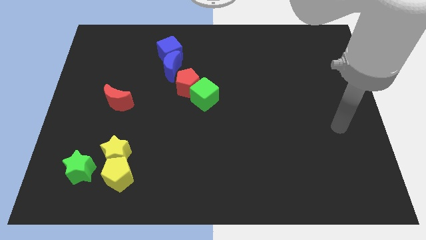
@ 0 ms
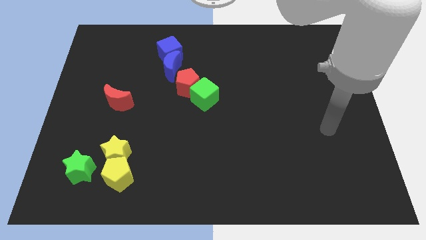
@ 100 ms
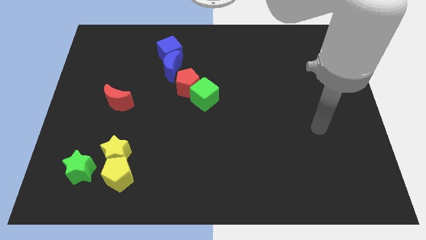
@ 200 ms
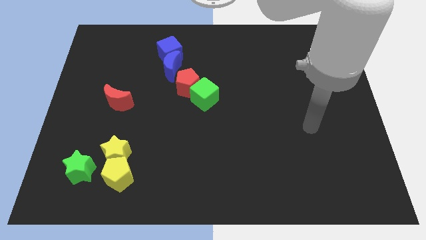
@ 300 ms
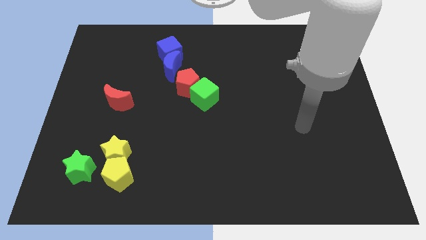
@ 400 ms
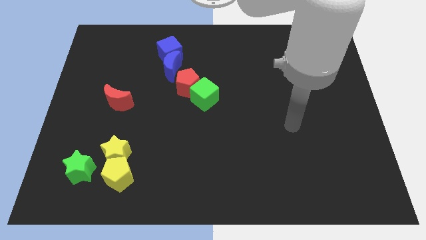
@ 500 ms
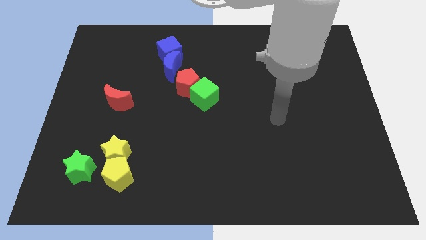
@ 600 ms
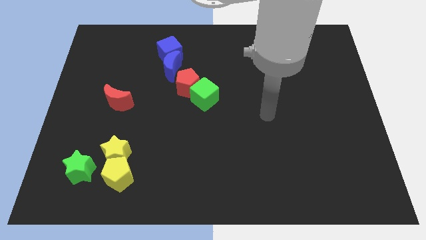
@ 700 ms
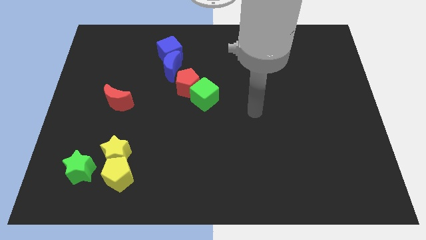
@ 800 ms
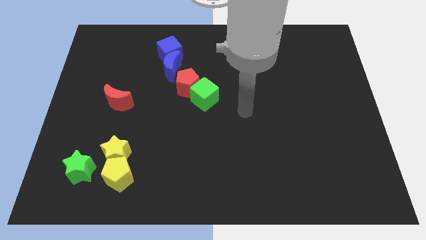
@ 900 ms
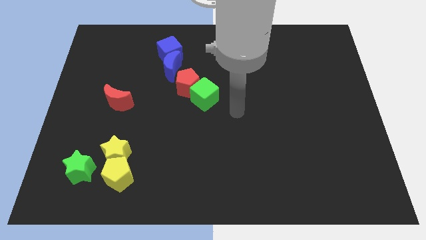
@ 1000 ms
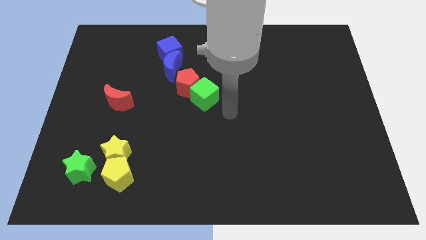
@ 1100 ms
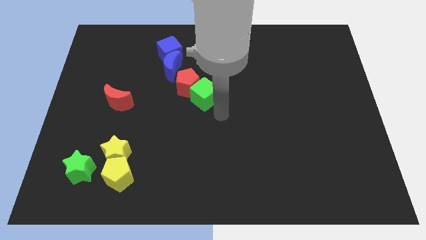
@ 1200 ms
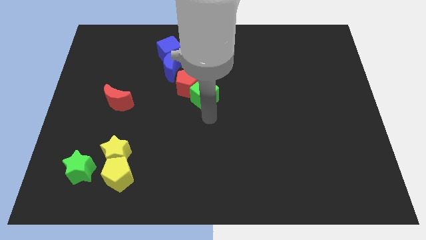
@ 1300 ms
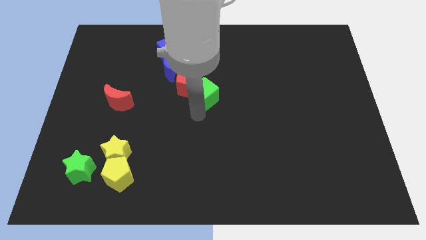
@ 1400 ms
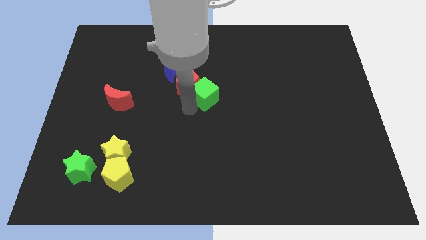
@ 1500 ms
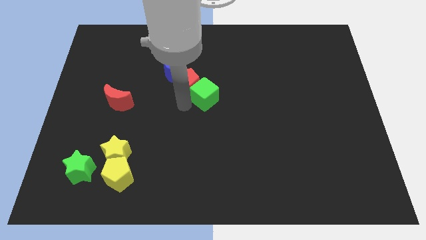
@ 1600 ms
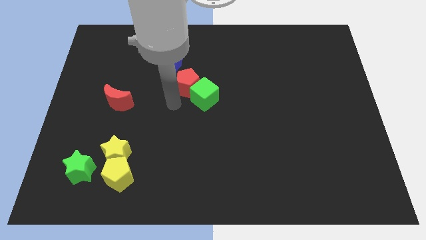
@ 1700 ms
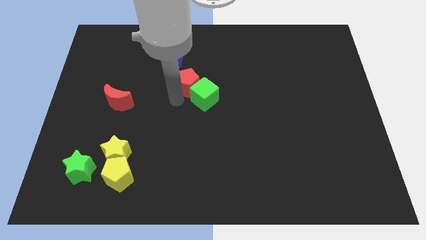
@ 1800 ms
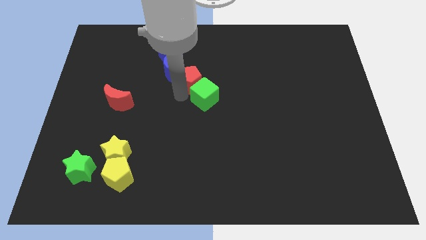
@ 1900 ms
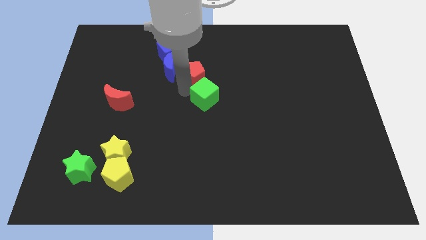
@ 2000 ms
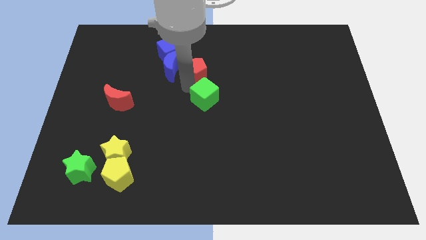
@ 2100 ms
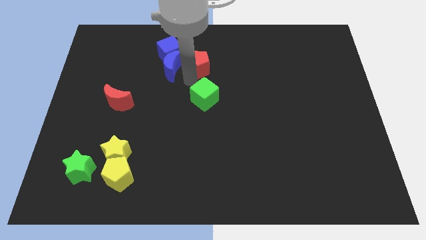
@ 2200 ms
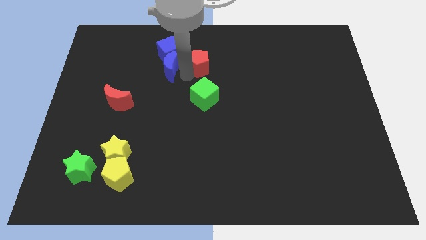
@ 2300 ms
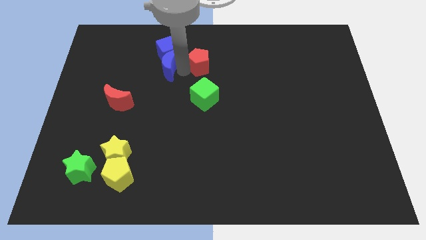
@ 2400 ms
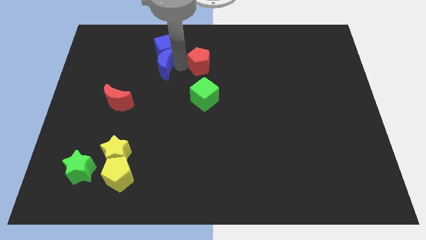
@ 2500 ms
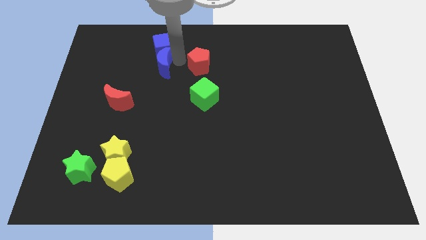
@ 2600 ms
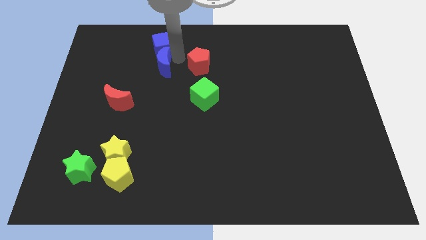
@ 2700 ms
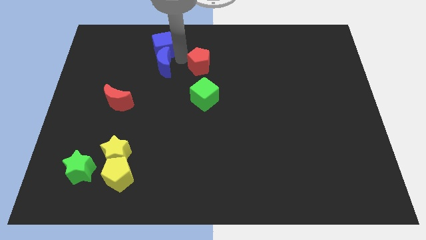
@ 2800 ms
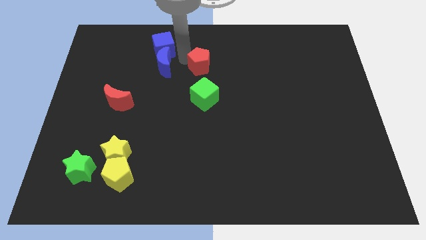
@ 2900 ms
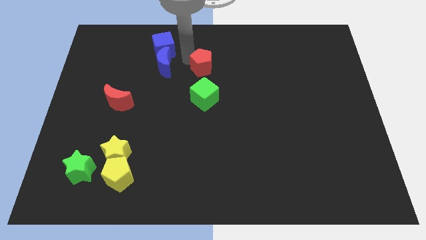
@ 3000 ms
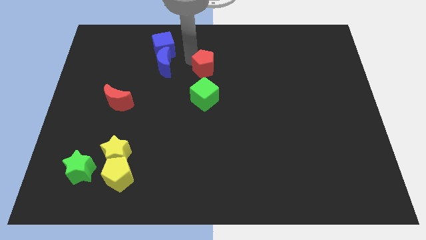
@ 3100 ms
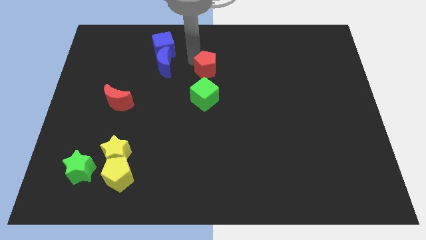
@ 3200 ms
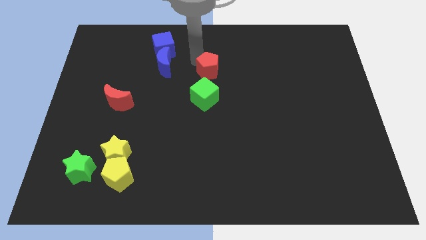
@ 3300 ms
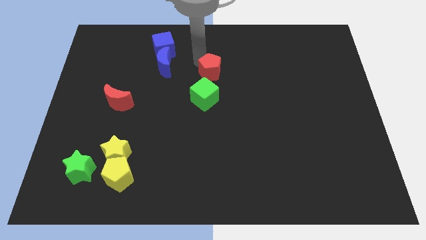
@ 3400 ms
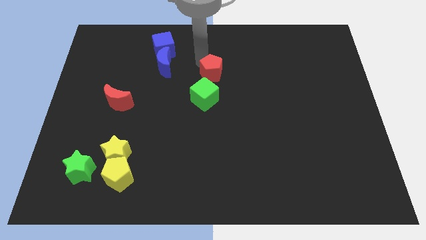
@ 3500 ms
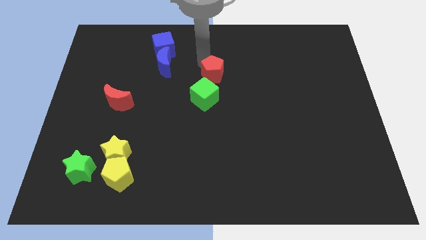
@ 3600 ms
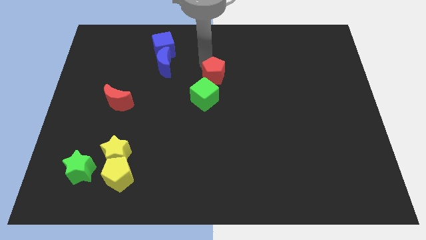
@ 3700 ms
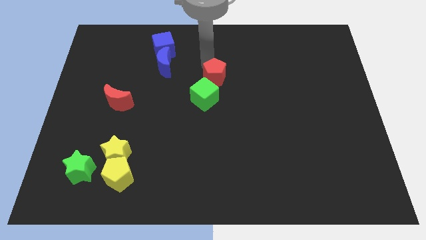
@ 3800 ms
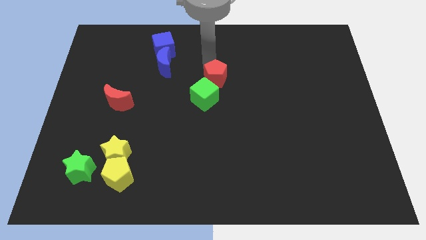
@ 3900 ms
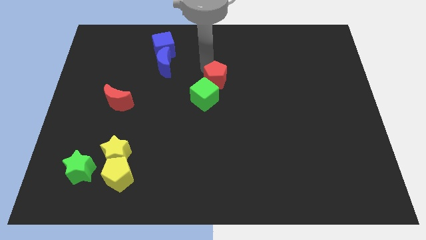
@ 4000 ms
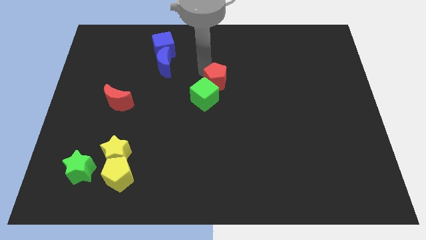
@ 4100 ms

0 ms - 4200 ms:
move the red pentagon somewhat to the right

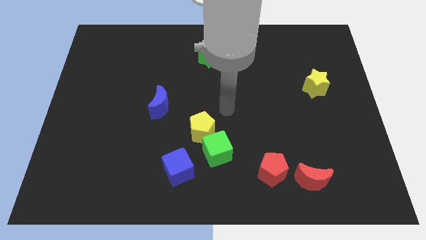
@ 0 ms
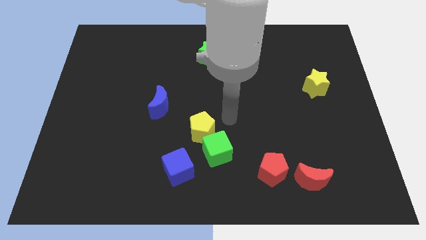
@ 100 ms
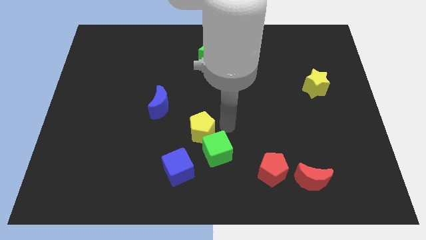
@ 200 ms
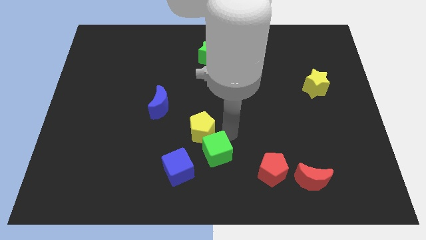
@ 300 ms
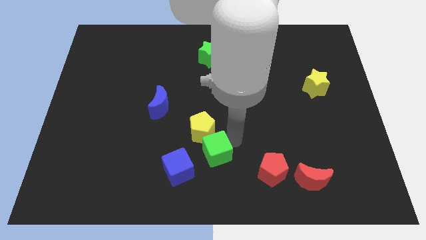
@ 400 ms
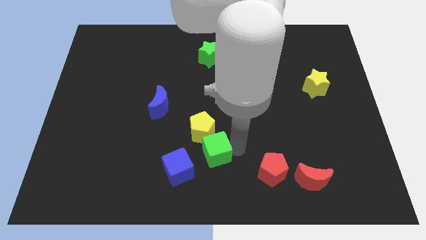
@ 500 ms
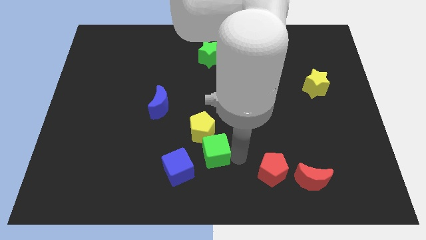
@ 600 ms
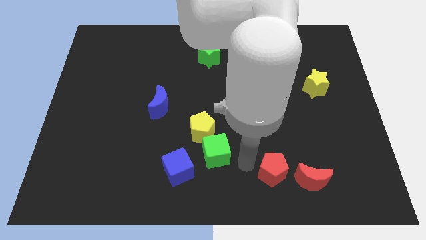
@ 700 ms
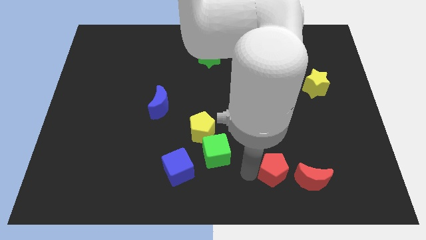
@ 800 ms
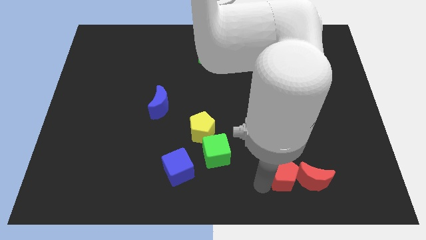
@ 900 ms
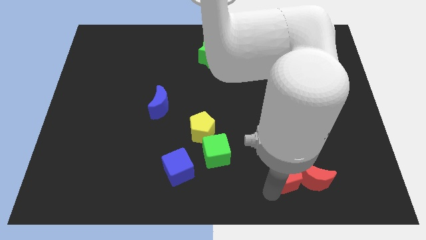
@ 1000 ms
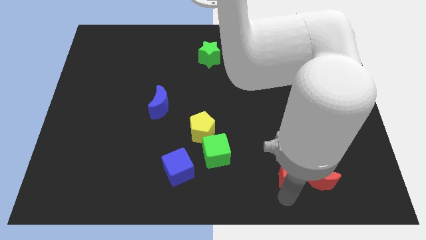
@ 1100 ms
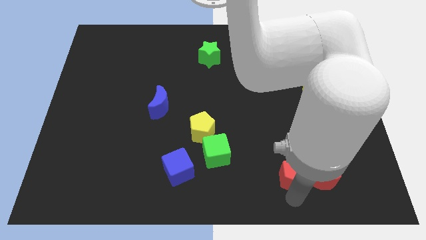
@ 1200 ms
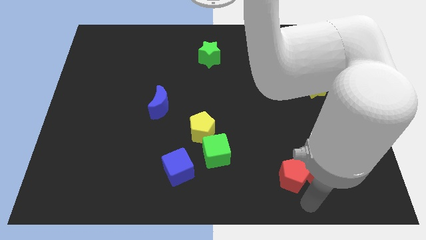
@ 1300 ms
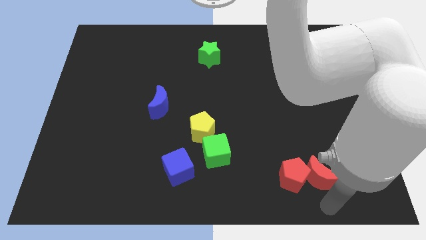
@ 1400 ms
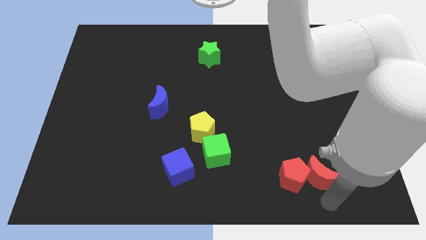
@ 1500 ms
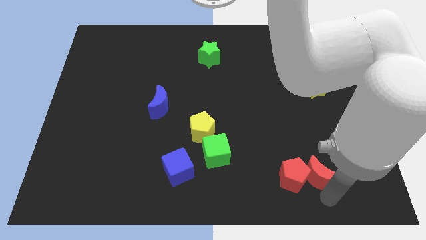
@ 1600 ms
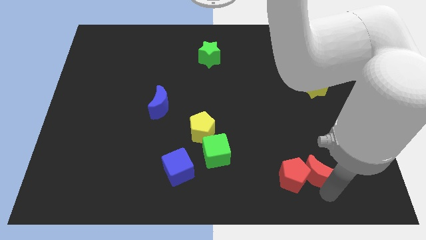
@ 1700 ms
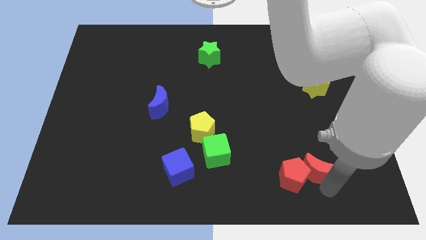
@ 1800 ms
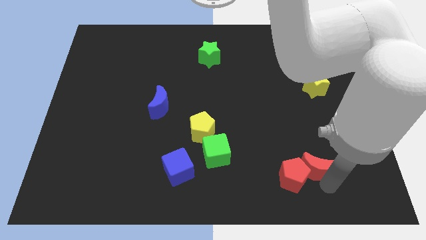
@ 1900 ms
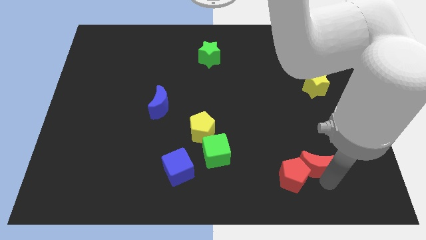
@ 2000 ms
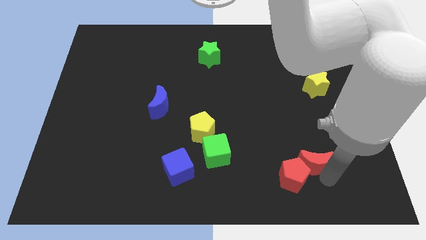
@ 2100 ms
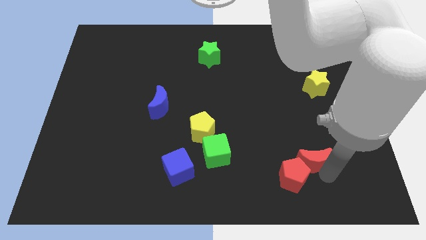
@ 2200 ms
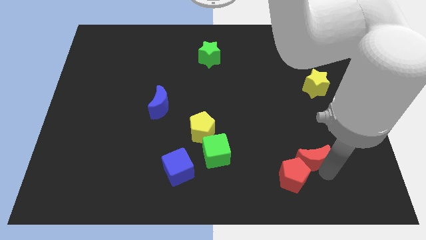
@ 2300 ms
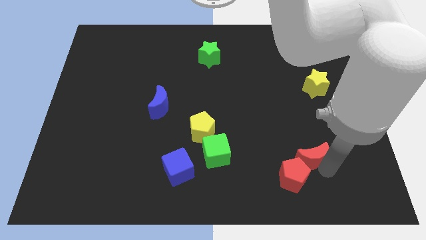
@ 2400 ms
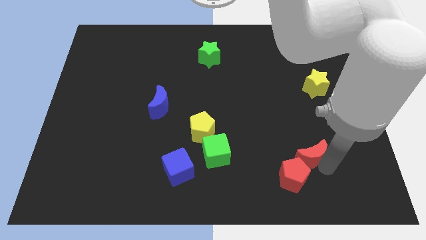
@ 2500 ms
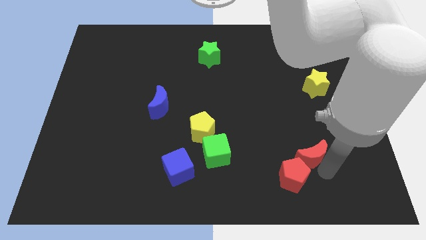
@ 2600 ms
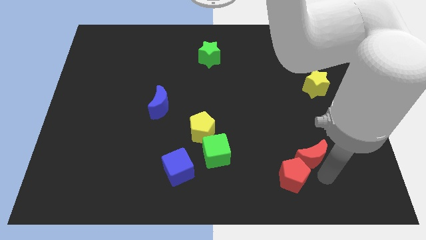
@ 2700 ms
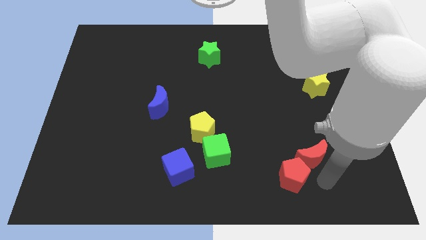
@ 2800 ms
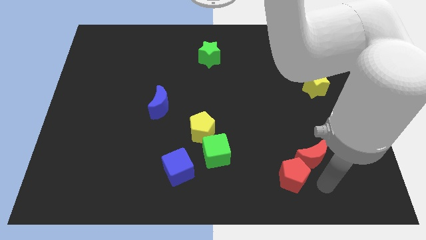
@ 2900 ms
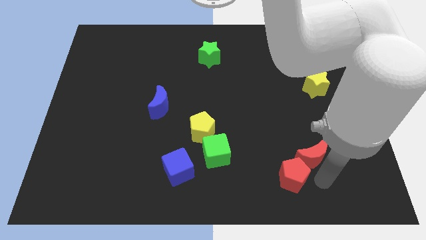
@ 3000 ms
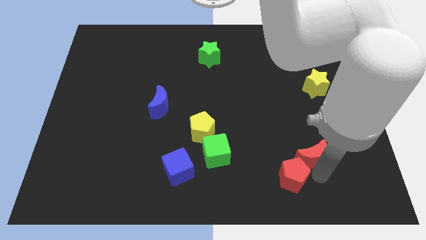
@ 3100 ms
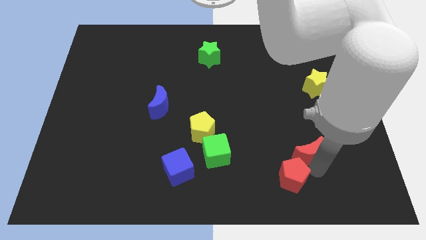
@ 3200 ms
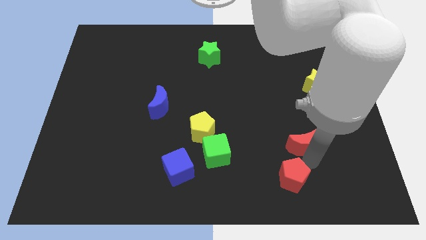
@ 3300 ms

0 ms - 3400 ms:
slightly push the red moon up

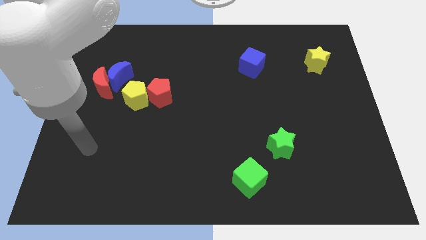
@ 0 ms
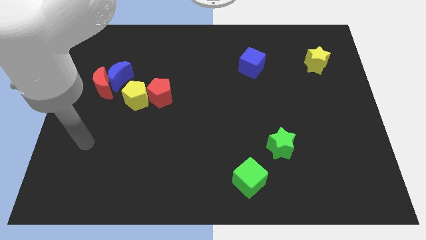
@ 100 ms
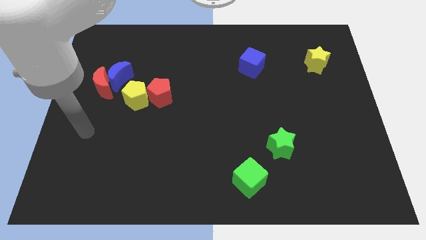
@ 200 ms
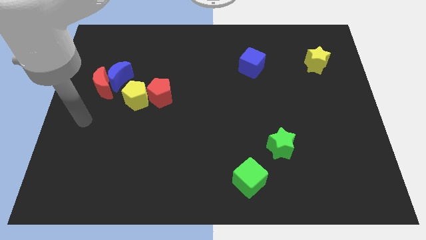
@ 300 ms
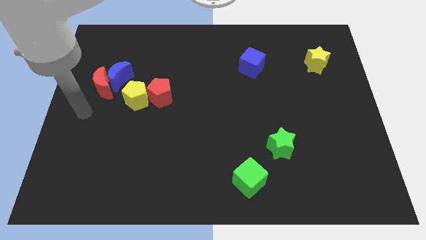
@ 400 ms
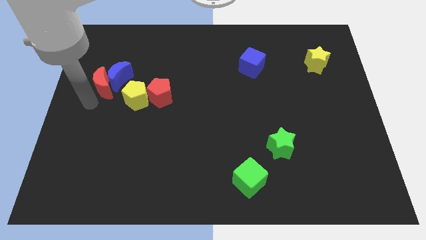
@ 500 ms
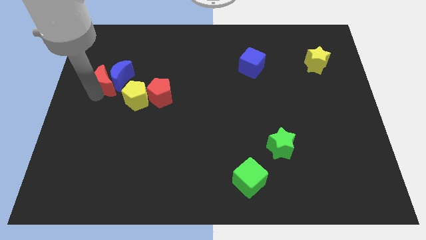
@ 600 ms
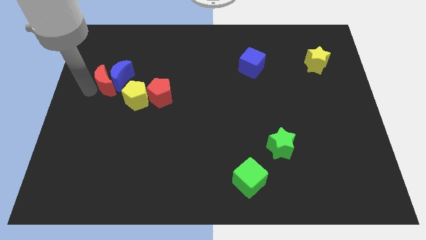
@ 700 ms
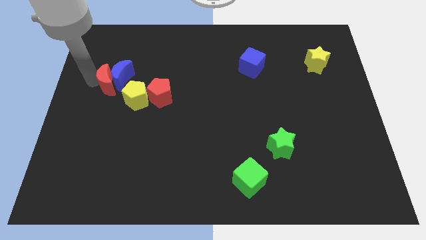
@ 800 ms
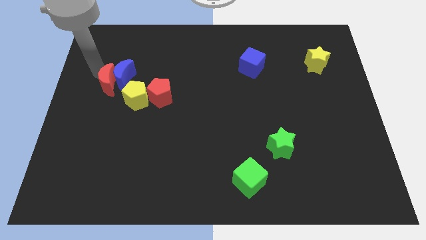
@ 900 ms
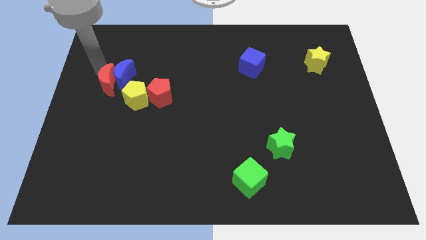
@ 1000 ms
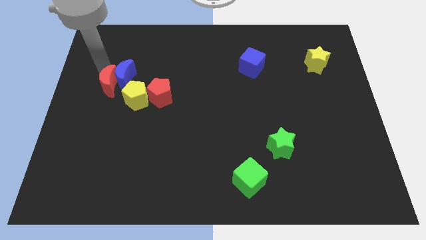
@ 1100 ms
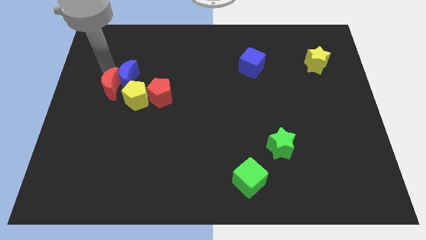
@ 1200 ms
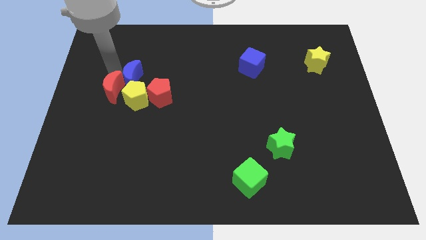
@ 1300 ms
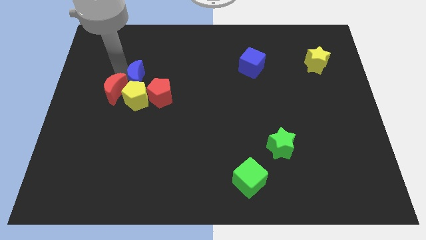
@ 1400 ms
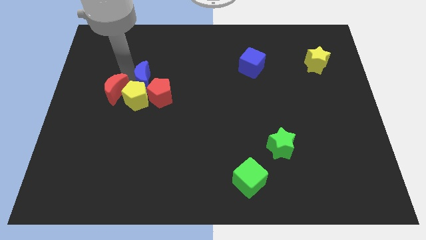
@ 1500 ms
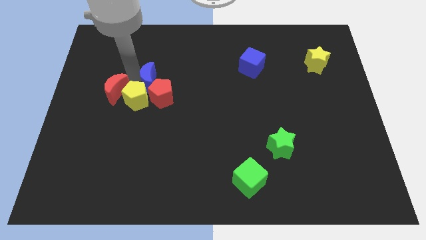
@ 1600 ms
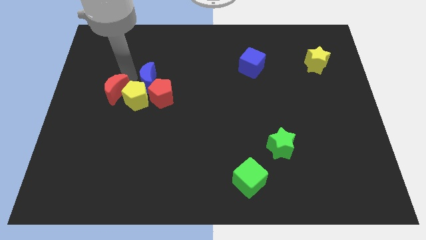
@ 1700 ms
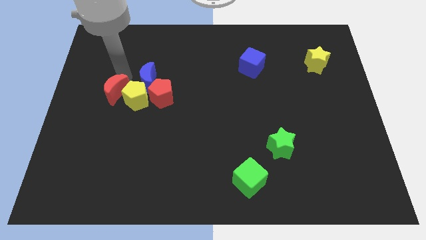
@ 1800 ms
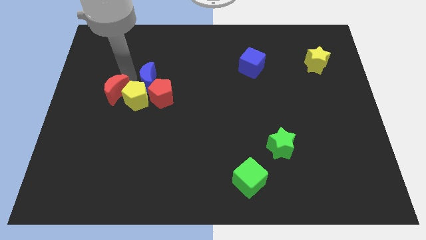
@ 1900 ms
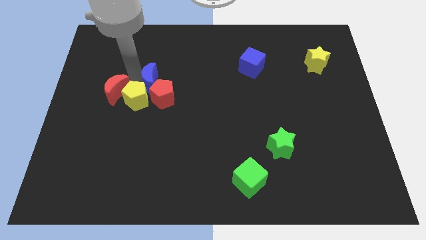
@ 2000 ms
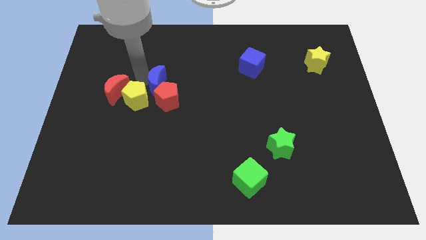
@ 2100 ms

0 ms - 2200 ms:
slide the blue moon downwards and to the right a bit
